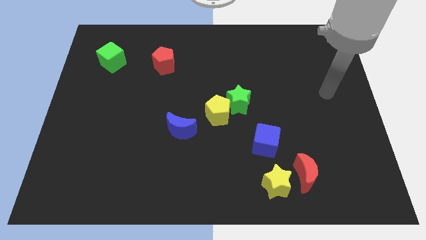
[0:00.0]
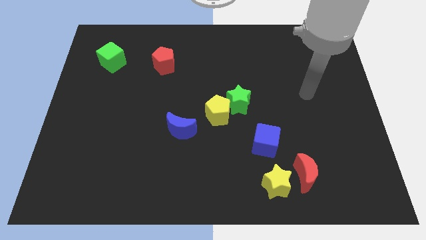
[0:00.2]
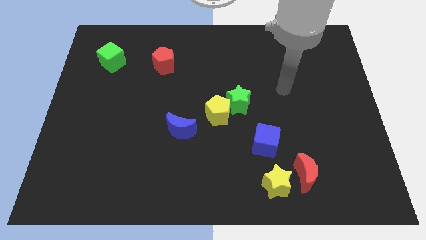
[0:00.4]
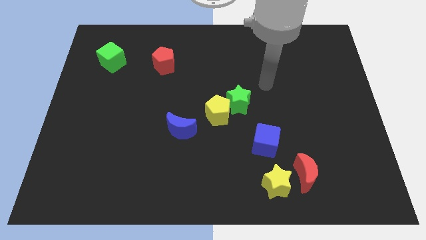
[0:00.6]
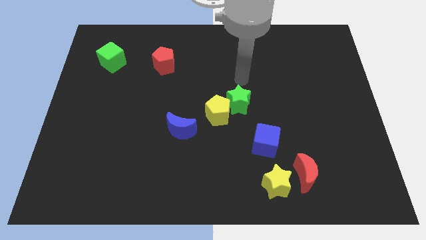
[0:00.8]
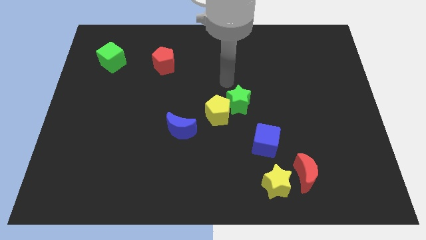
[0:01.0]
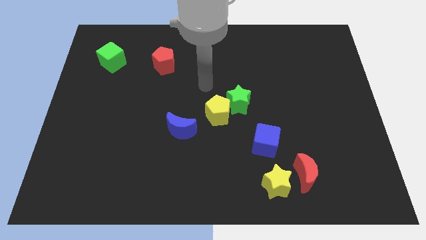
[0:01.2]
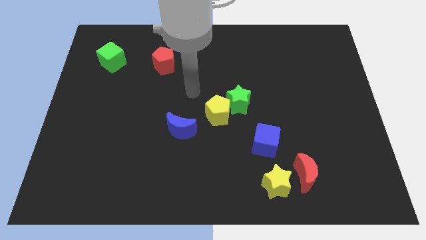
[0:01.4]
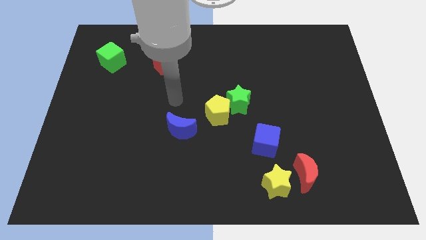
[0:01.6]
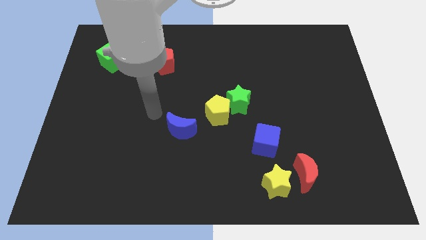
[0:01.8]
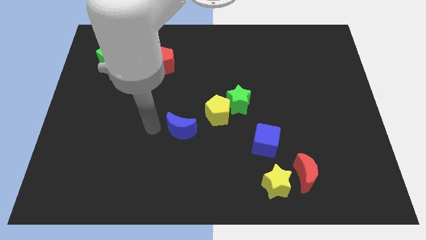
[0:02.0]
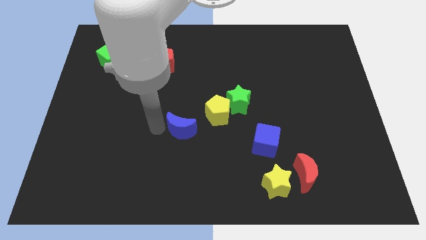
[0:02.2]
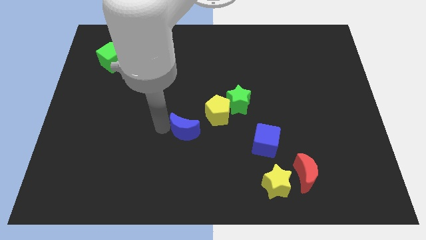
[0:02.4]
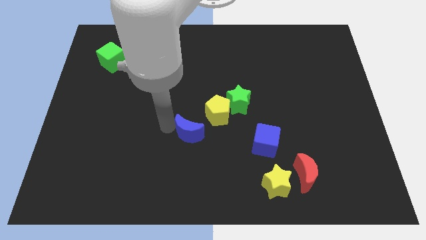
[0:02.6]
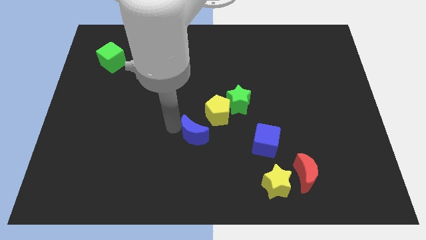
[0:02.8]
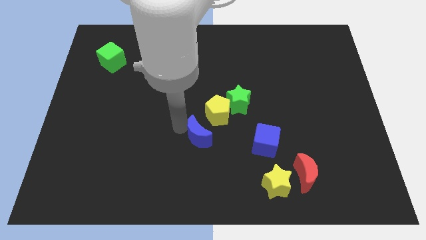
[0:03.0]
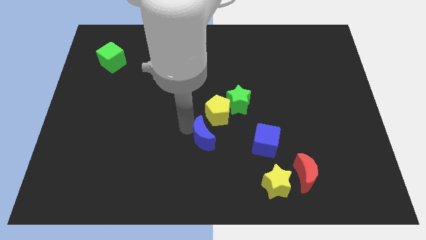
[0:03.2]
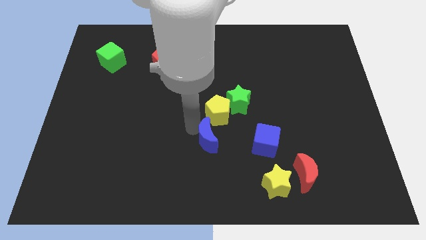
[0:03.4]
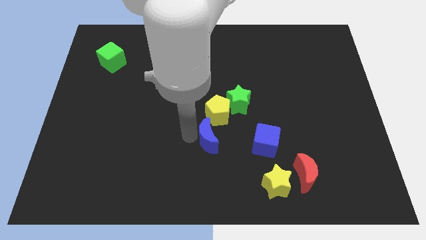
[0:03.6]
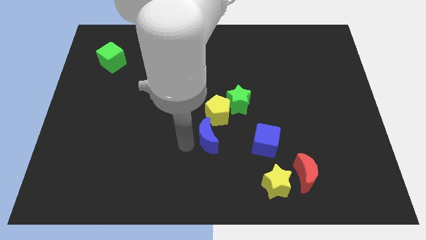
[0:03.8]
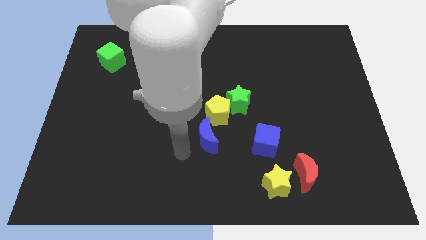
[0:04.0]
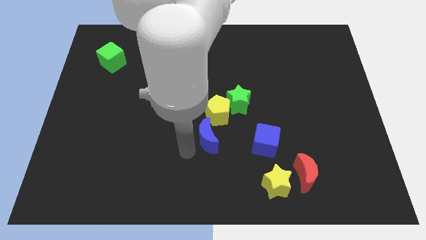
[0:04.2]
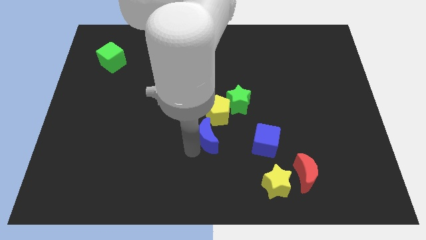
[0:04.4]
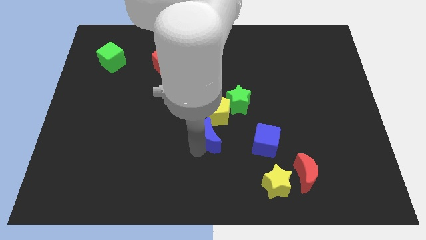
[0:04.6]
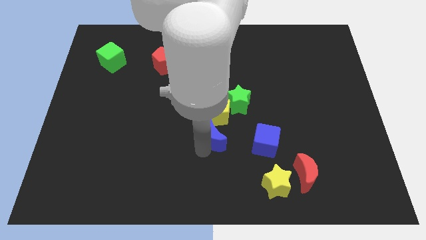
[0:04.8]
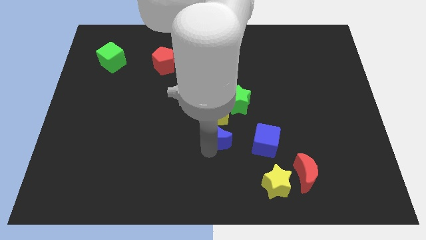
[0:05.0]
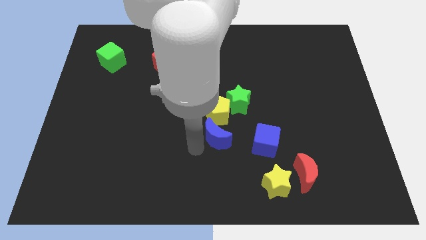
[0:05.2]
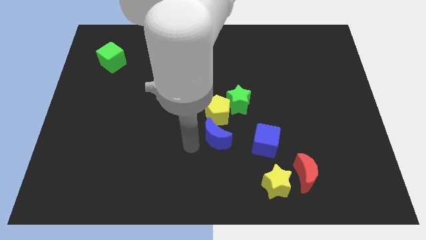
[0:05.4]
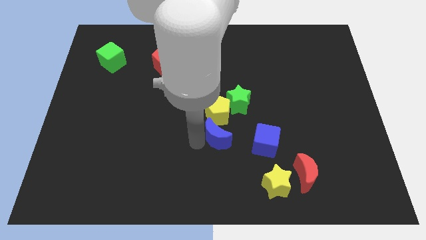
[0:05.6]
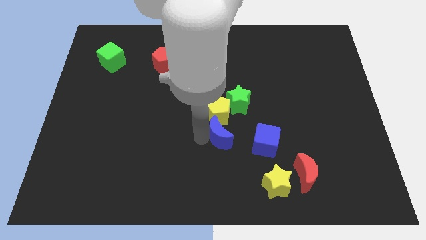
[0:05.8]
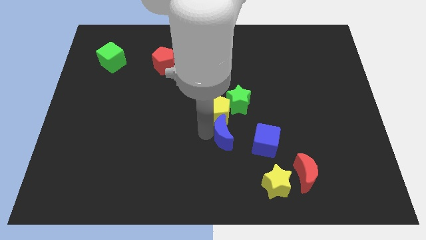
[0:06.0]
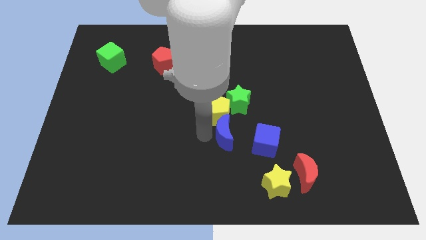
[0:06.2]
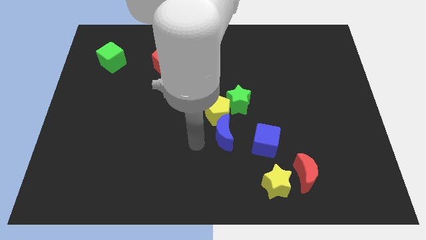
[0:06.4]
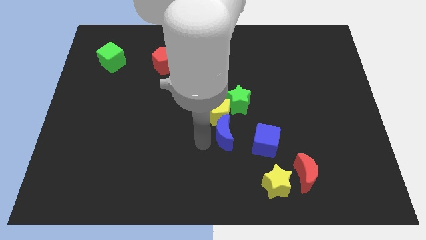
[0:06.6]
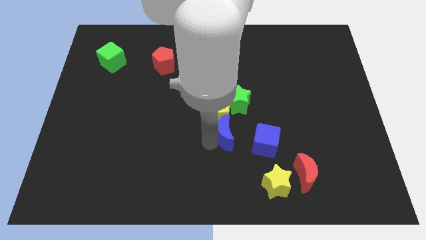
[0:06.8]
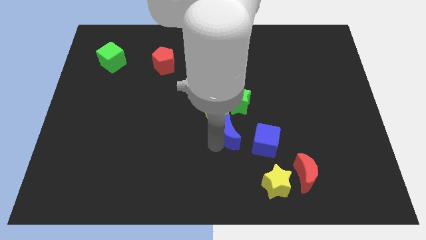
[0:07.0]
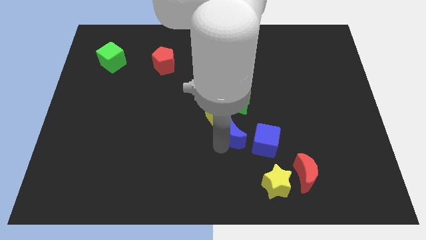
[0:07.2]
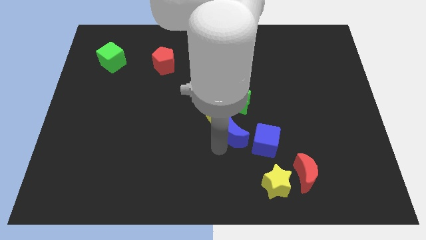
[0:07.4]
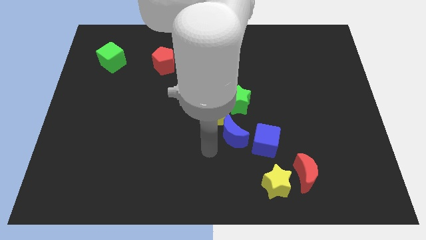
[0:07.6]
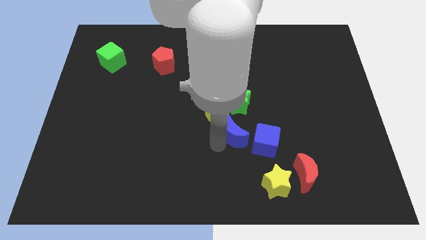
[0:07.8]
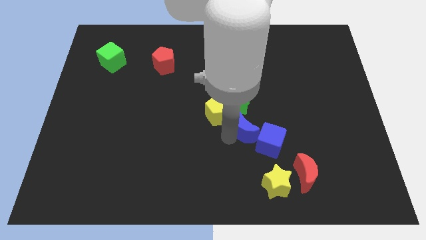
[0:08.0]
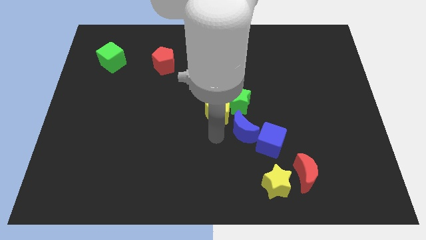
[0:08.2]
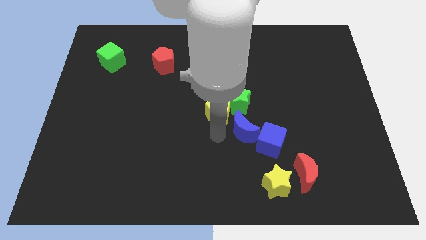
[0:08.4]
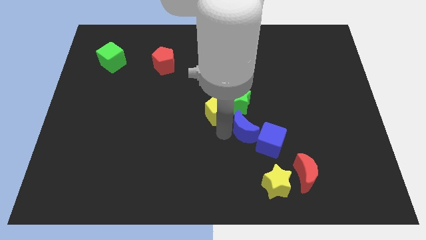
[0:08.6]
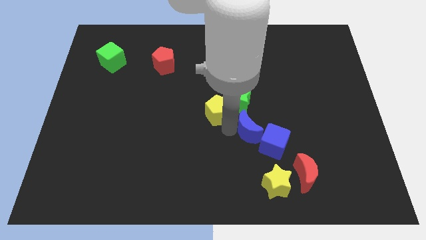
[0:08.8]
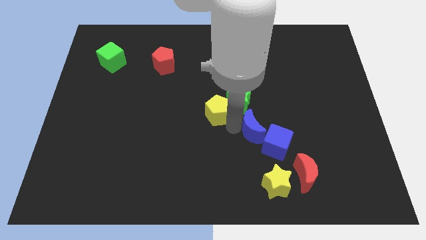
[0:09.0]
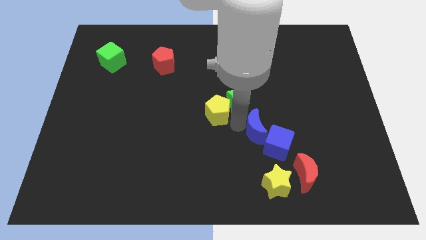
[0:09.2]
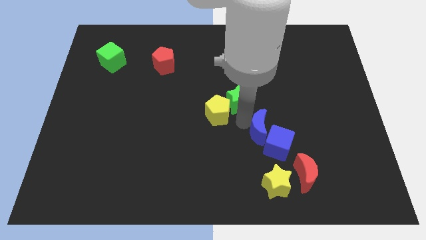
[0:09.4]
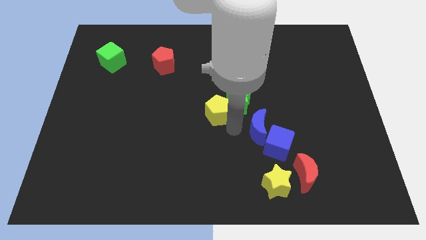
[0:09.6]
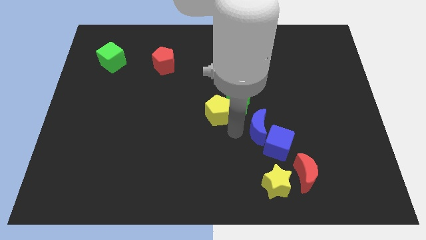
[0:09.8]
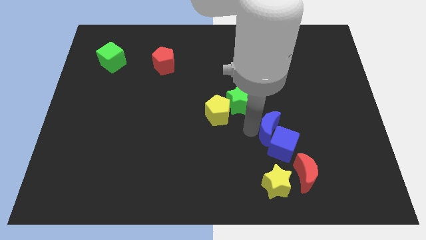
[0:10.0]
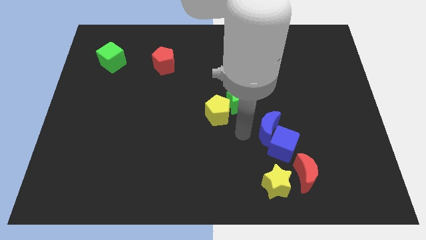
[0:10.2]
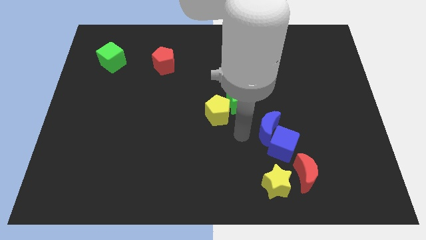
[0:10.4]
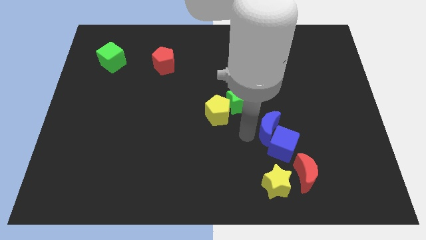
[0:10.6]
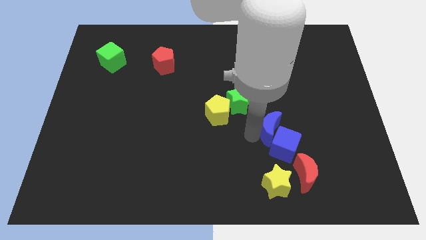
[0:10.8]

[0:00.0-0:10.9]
slide the blue moon to the right

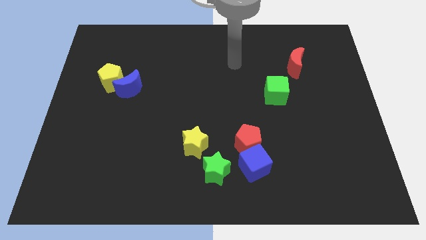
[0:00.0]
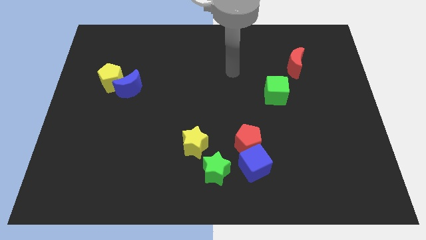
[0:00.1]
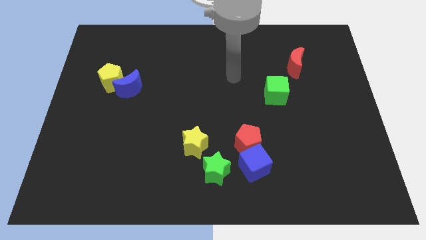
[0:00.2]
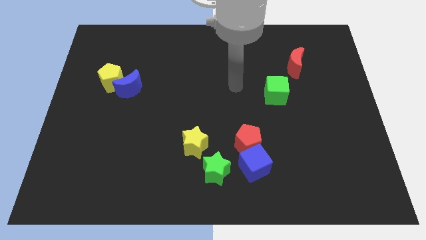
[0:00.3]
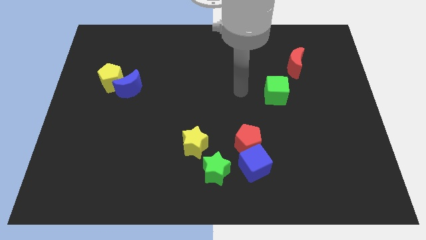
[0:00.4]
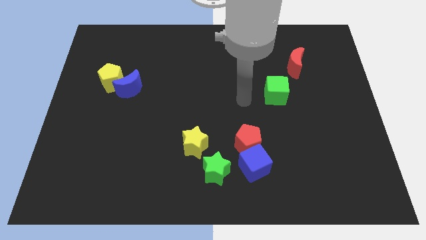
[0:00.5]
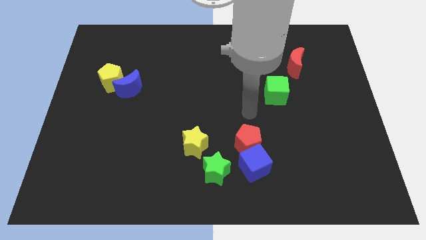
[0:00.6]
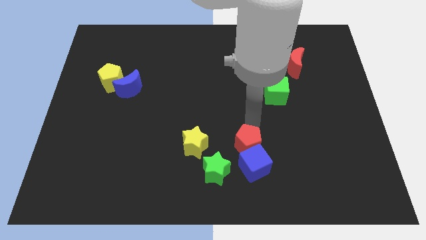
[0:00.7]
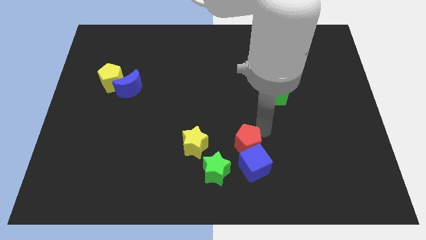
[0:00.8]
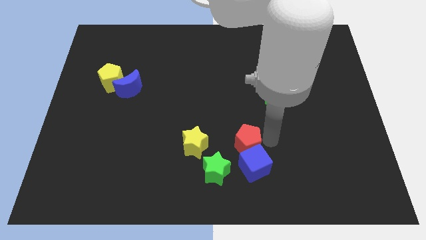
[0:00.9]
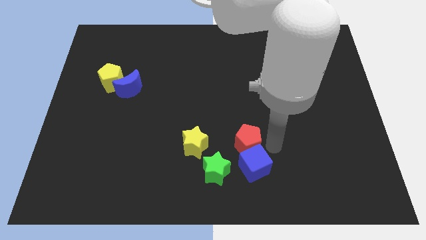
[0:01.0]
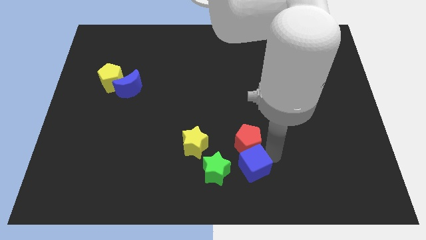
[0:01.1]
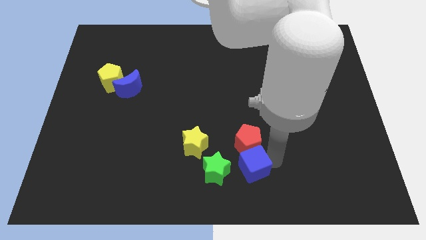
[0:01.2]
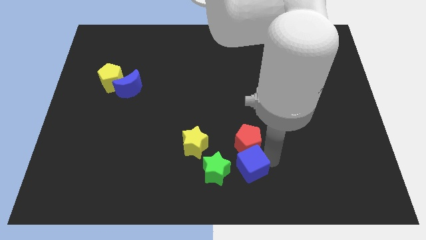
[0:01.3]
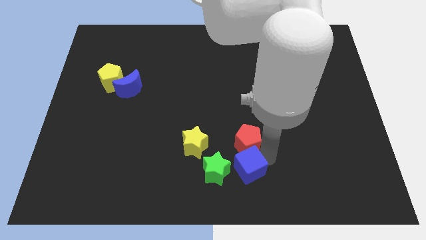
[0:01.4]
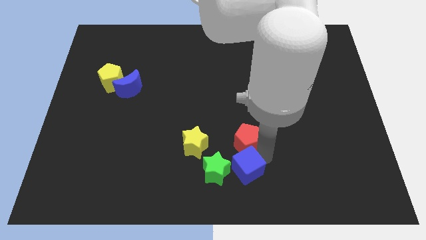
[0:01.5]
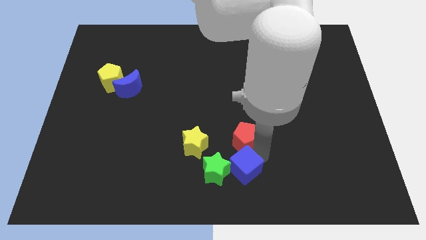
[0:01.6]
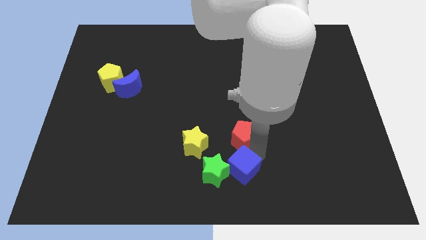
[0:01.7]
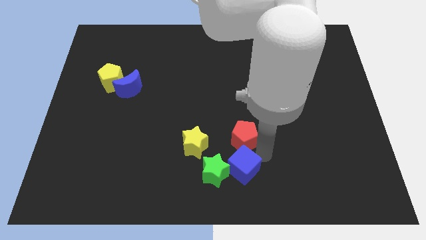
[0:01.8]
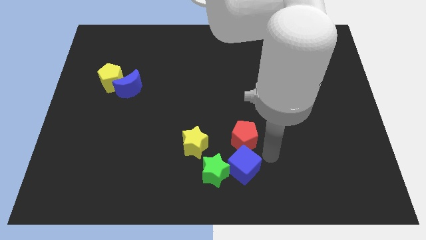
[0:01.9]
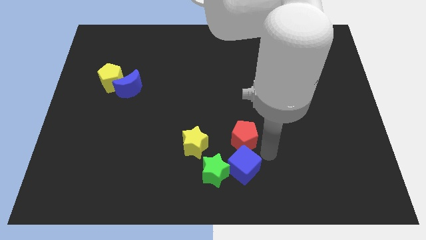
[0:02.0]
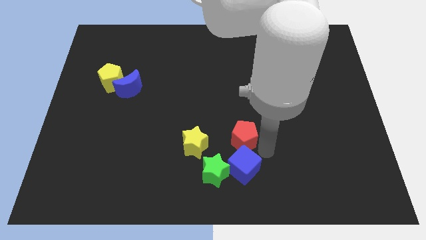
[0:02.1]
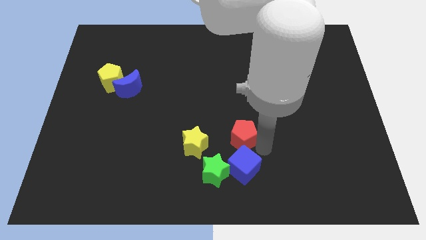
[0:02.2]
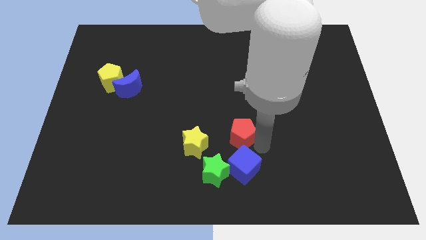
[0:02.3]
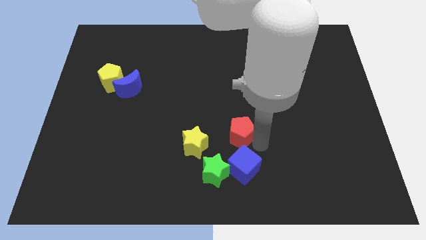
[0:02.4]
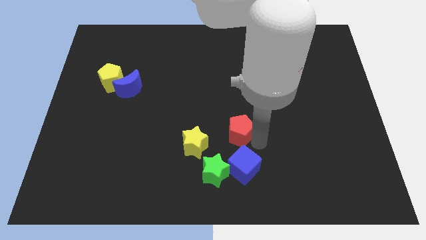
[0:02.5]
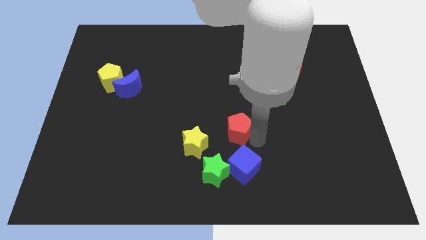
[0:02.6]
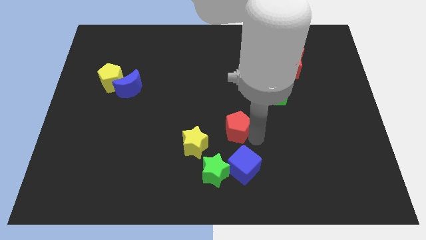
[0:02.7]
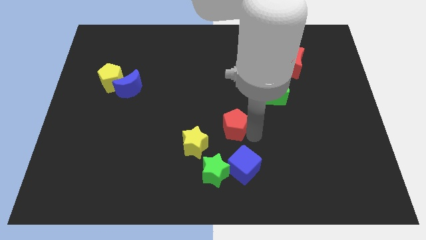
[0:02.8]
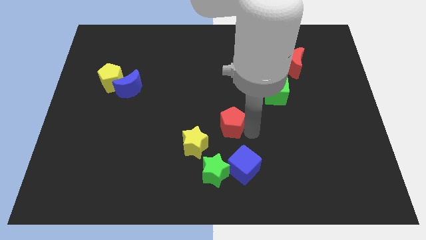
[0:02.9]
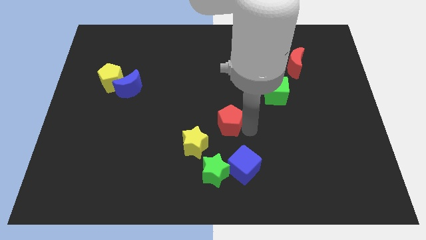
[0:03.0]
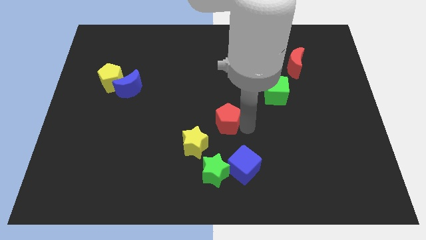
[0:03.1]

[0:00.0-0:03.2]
push the red pentagon diagonally upwards and left slightly
